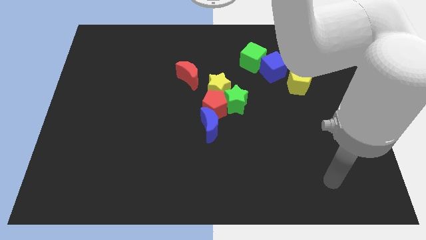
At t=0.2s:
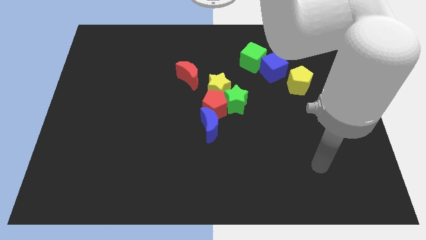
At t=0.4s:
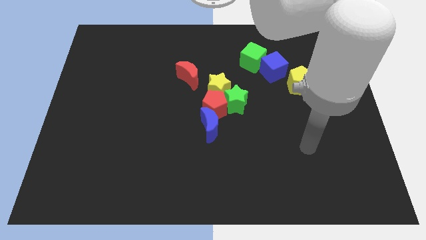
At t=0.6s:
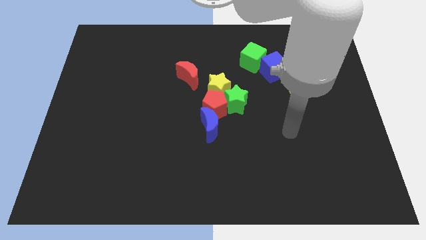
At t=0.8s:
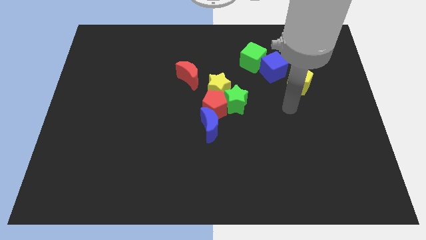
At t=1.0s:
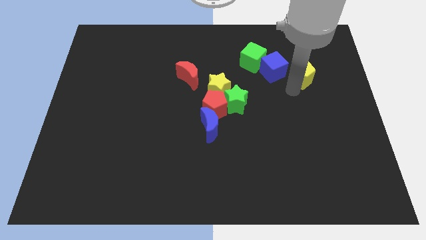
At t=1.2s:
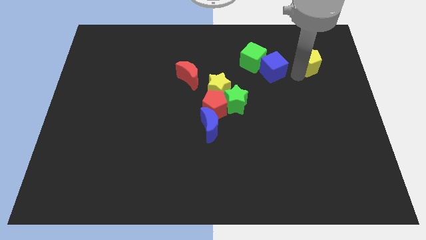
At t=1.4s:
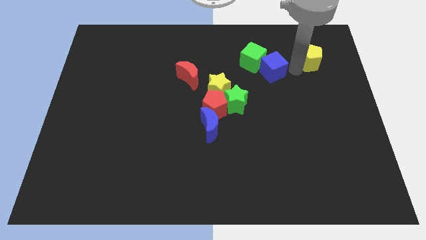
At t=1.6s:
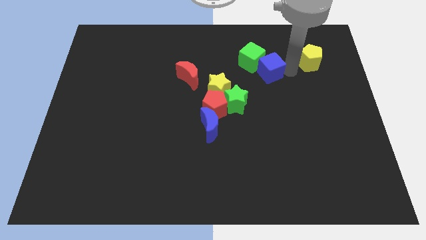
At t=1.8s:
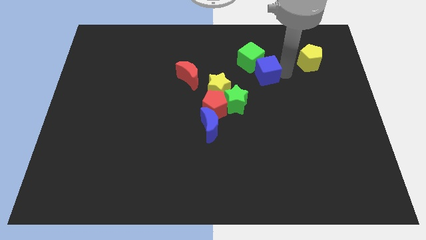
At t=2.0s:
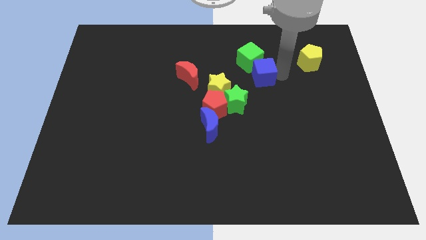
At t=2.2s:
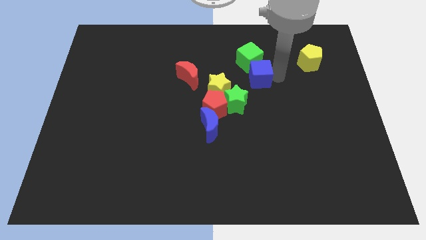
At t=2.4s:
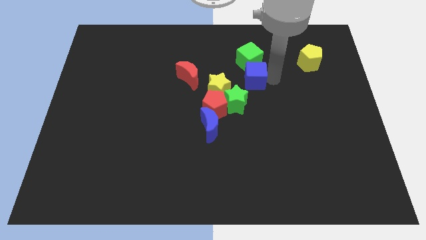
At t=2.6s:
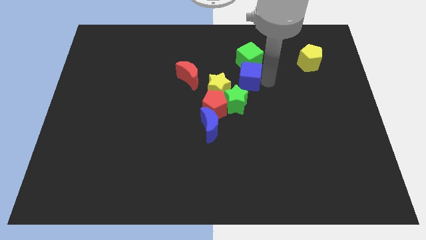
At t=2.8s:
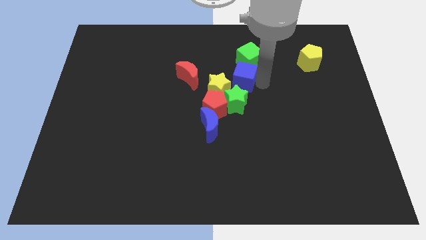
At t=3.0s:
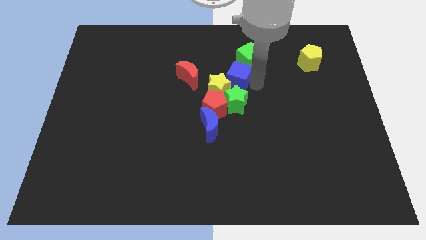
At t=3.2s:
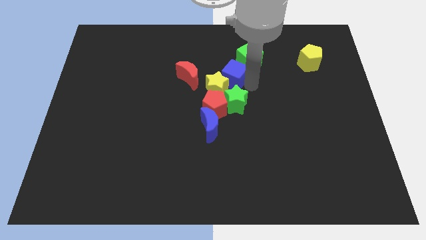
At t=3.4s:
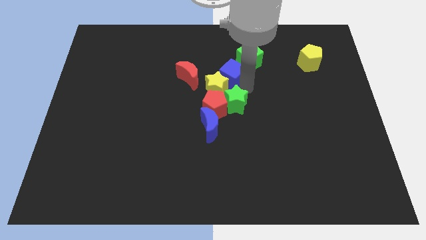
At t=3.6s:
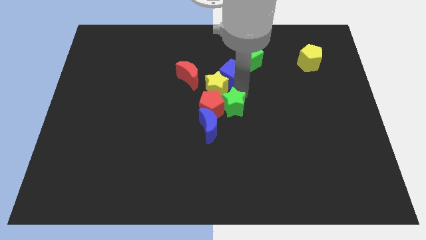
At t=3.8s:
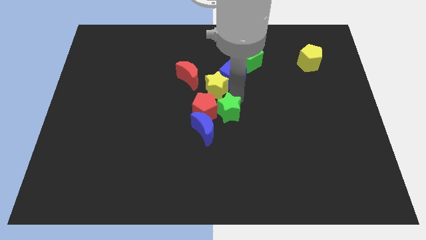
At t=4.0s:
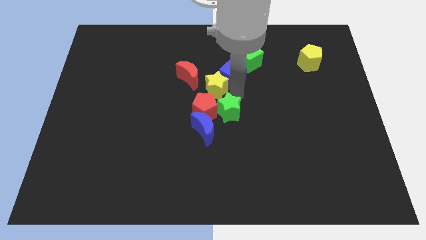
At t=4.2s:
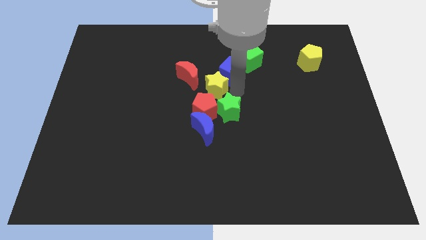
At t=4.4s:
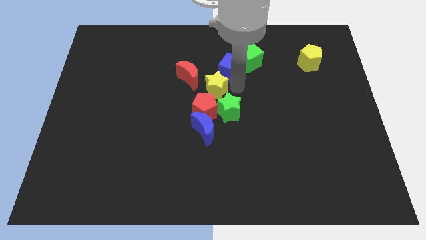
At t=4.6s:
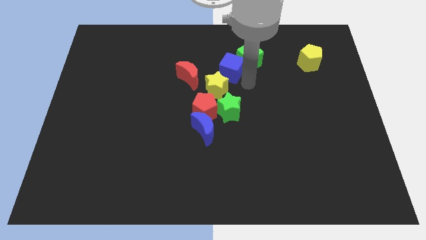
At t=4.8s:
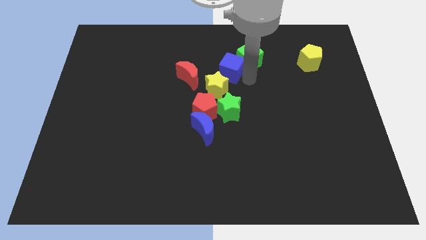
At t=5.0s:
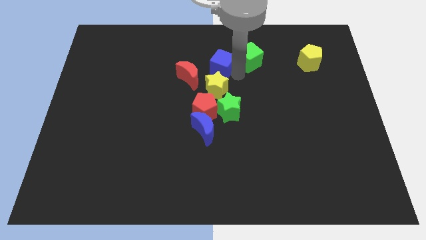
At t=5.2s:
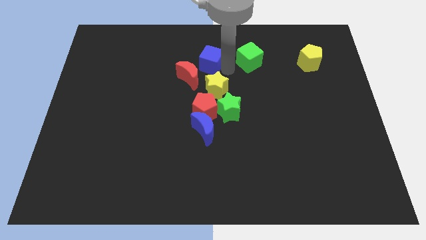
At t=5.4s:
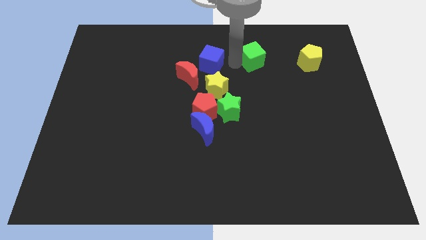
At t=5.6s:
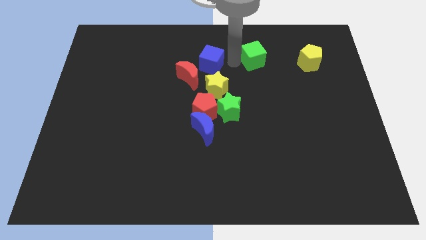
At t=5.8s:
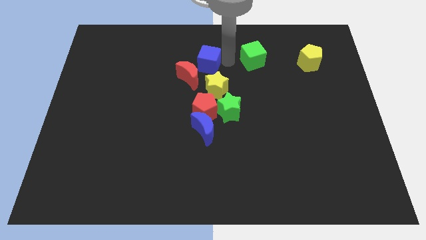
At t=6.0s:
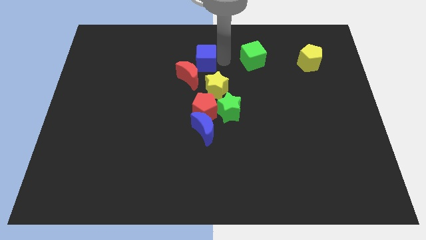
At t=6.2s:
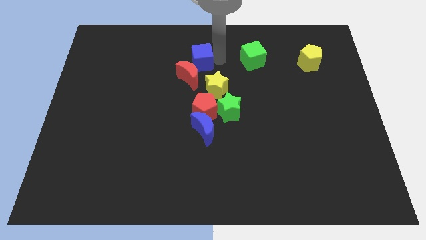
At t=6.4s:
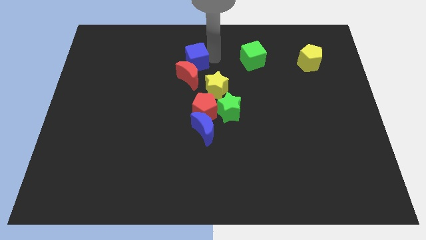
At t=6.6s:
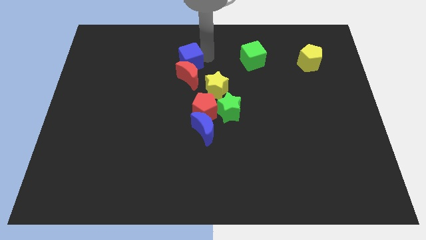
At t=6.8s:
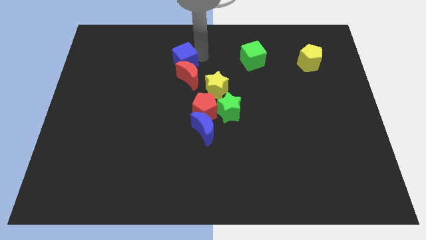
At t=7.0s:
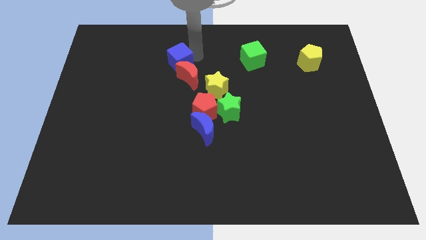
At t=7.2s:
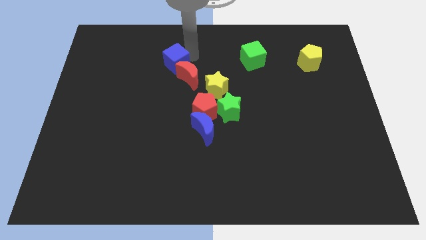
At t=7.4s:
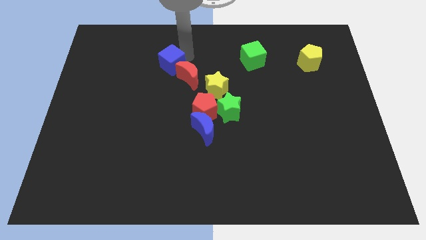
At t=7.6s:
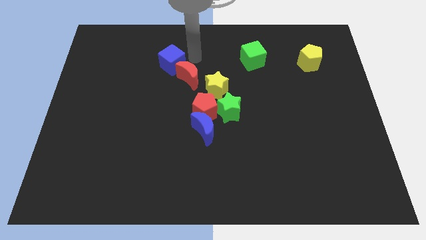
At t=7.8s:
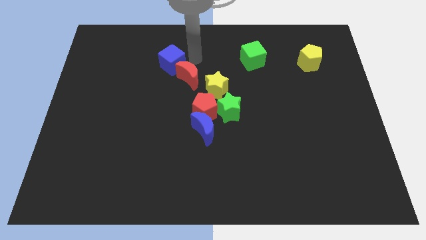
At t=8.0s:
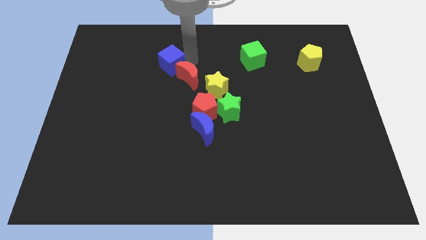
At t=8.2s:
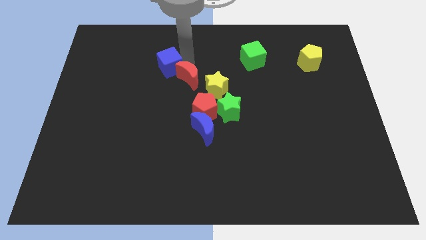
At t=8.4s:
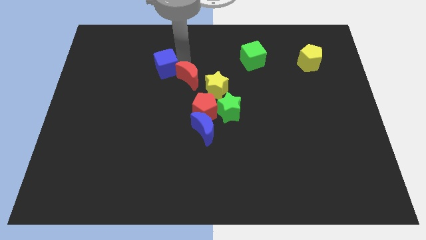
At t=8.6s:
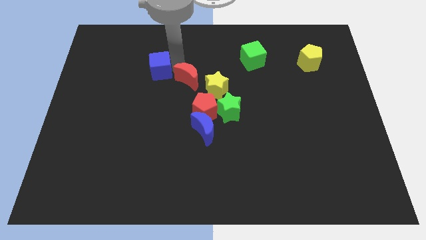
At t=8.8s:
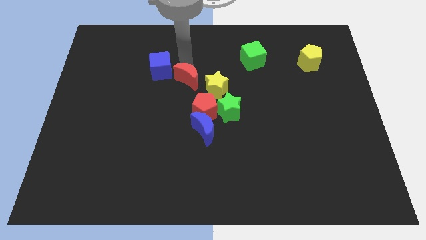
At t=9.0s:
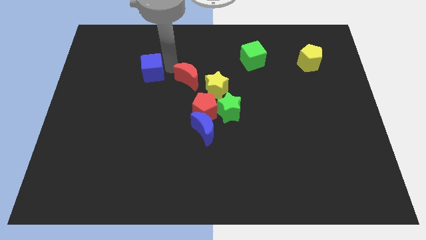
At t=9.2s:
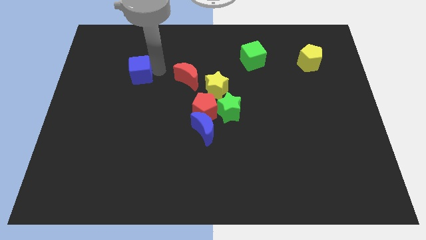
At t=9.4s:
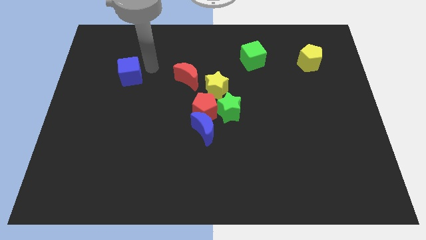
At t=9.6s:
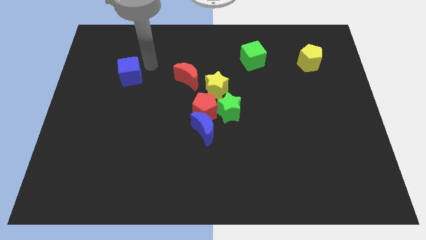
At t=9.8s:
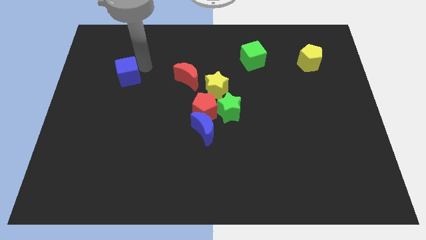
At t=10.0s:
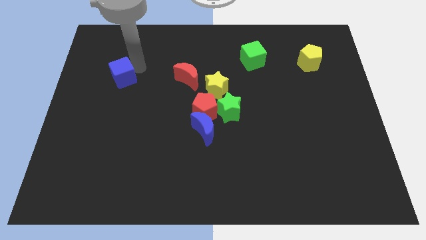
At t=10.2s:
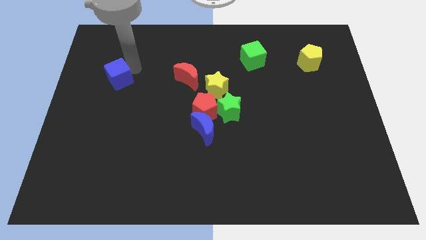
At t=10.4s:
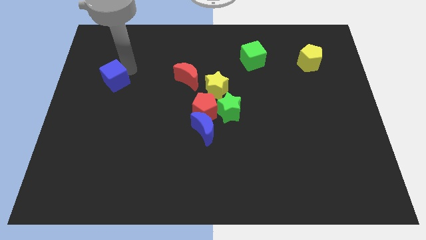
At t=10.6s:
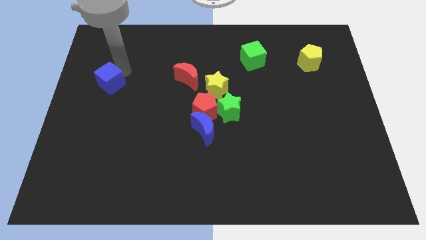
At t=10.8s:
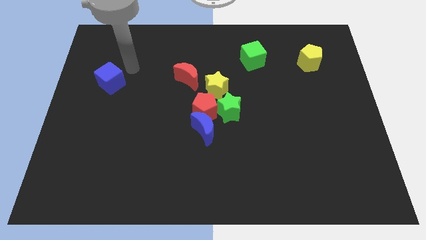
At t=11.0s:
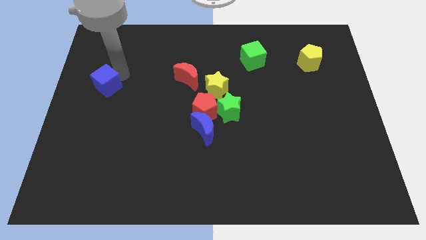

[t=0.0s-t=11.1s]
move the blue cube to the left side of the board

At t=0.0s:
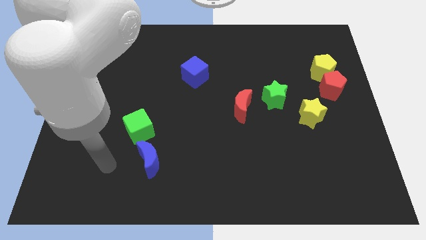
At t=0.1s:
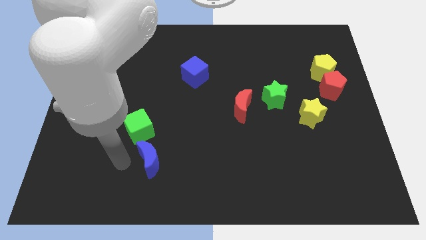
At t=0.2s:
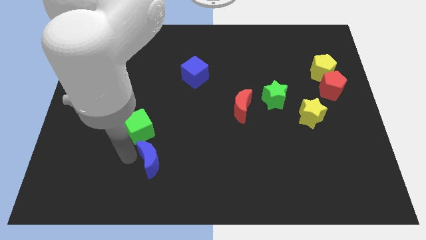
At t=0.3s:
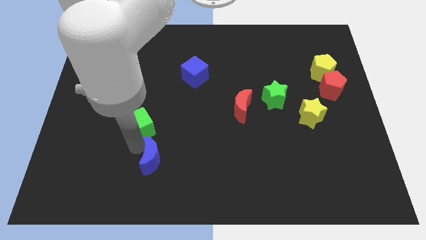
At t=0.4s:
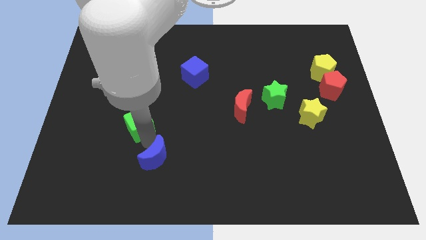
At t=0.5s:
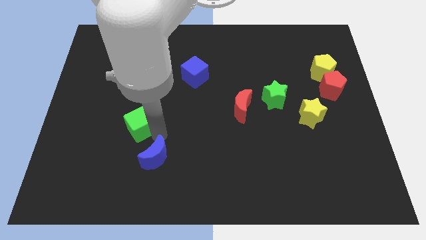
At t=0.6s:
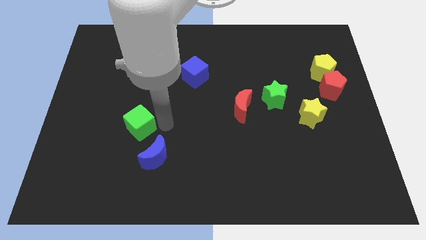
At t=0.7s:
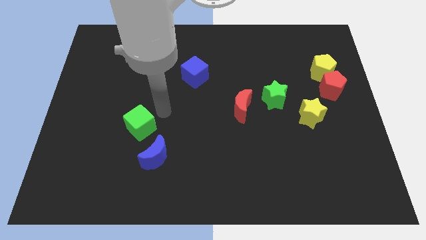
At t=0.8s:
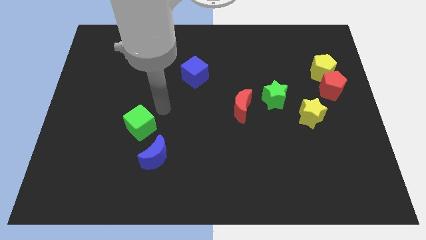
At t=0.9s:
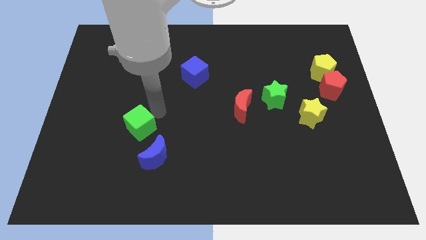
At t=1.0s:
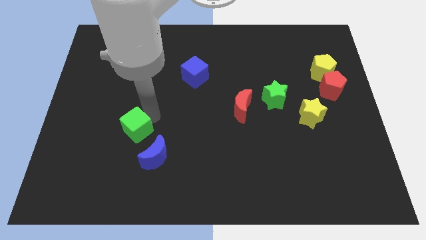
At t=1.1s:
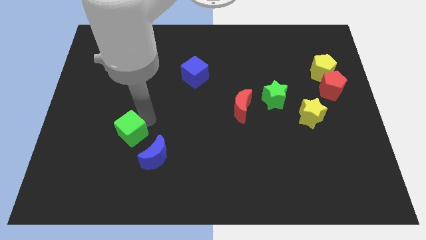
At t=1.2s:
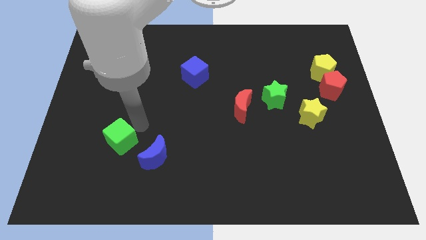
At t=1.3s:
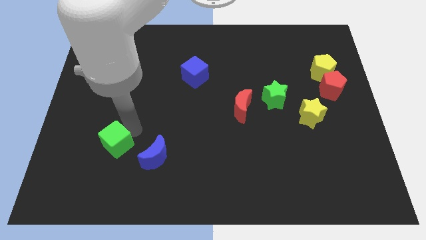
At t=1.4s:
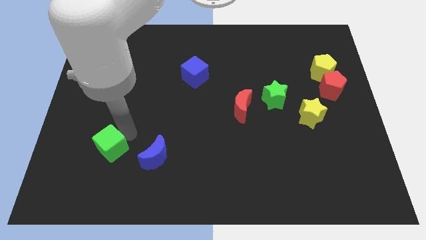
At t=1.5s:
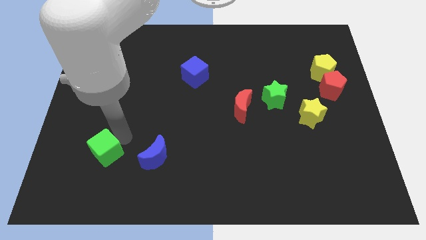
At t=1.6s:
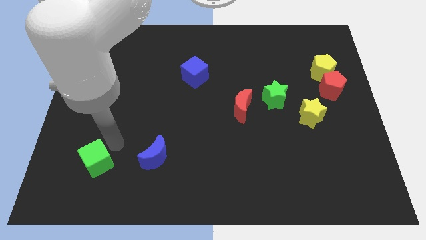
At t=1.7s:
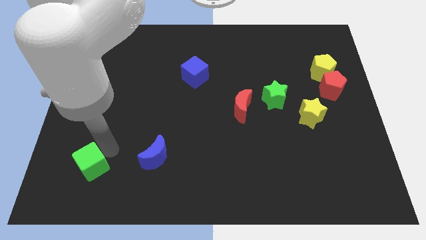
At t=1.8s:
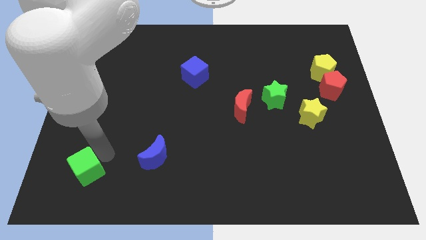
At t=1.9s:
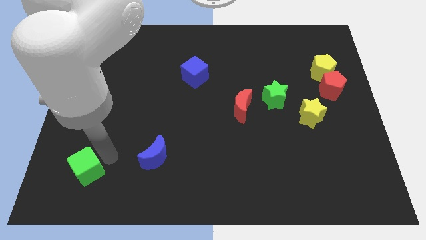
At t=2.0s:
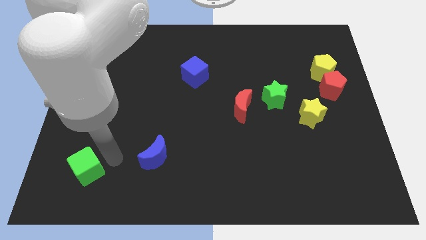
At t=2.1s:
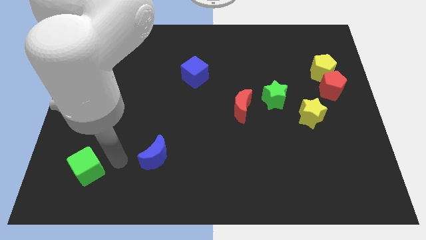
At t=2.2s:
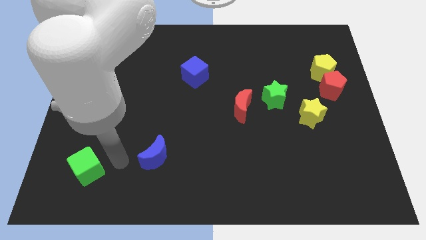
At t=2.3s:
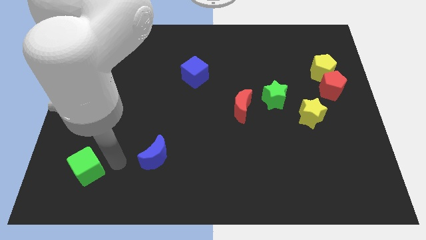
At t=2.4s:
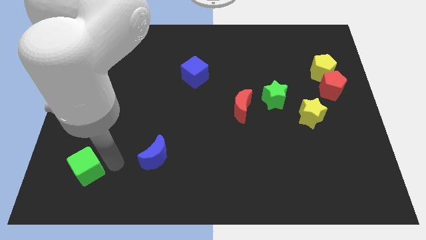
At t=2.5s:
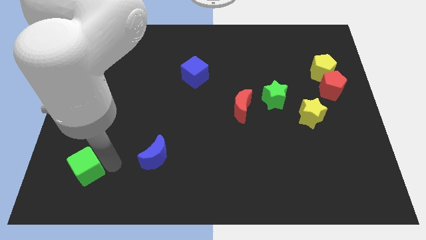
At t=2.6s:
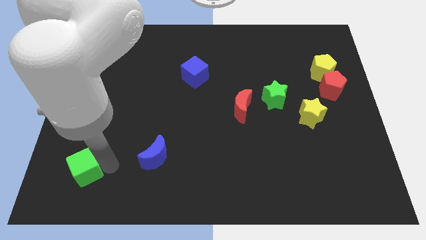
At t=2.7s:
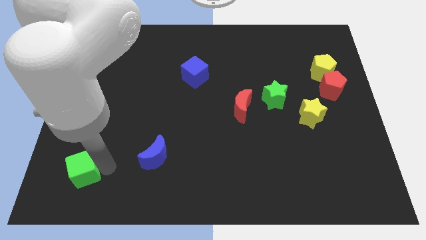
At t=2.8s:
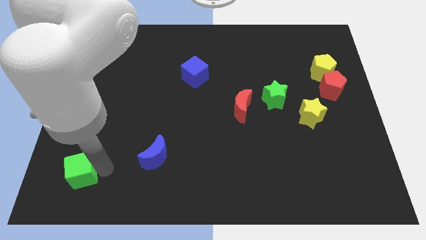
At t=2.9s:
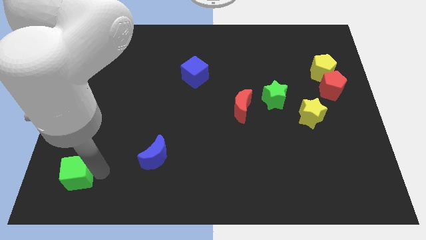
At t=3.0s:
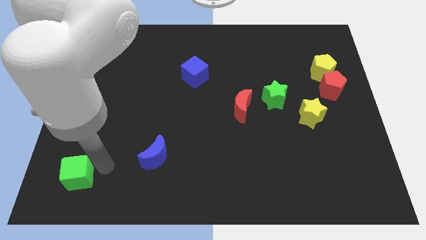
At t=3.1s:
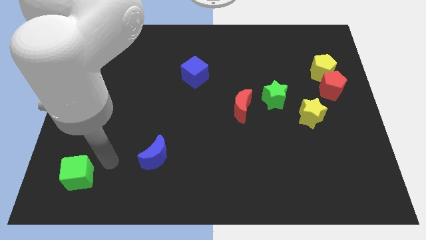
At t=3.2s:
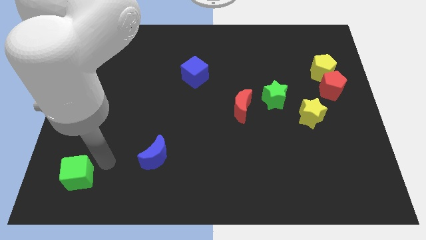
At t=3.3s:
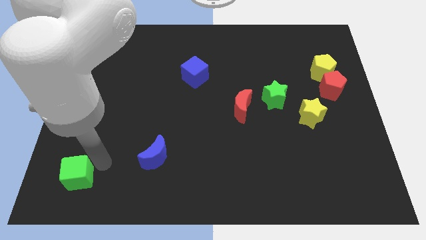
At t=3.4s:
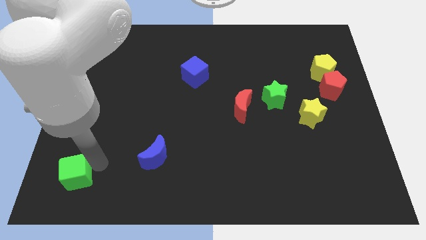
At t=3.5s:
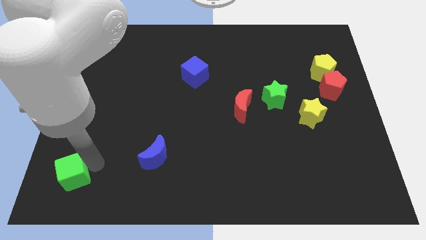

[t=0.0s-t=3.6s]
put the green cube to the bottom left
